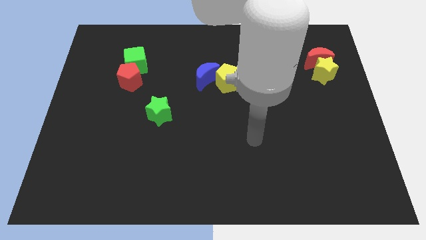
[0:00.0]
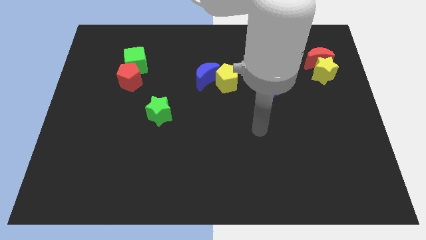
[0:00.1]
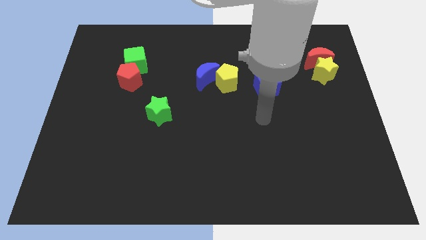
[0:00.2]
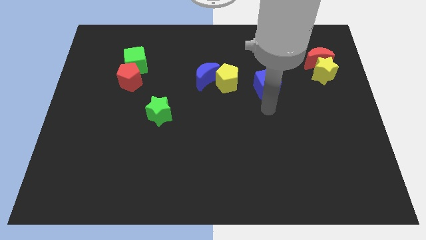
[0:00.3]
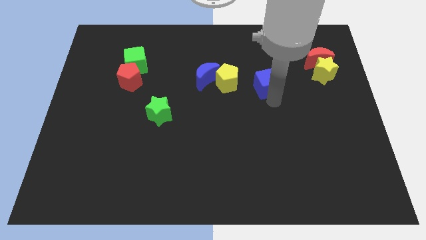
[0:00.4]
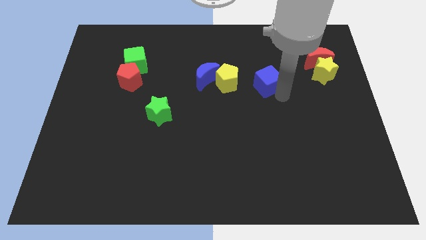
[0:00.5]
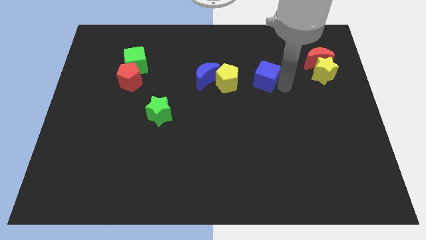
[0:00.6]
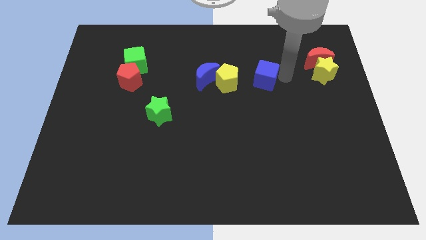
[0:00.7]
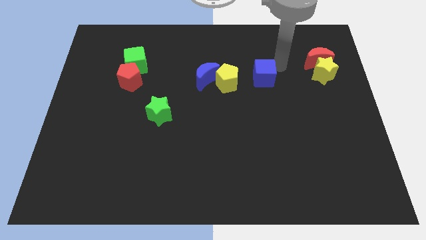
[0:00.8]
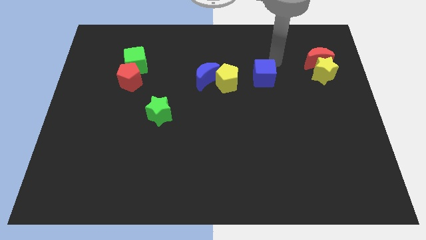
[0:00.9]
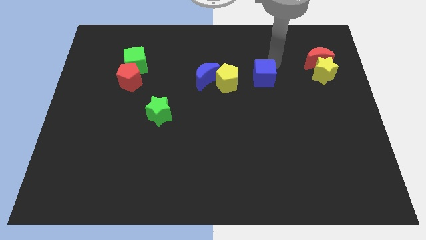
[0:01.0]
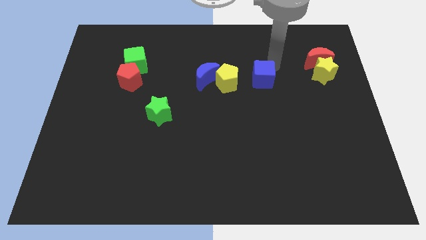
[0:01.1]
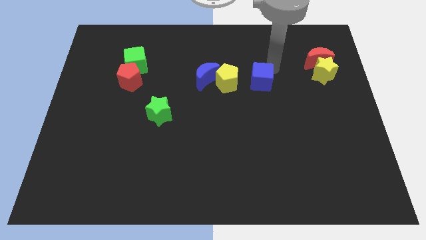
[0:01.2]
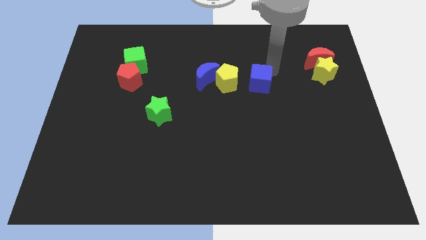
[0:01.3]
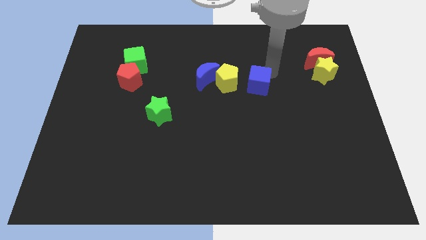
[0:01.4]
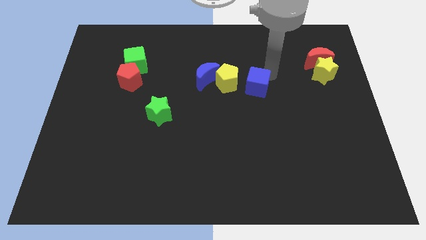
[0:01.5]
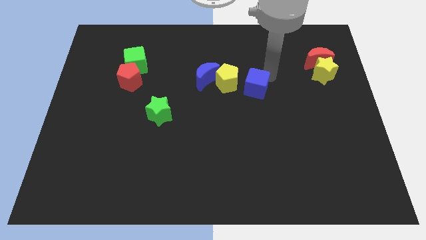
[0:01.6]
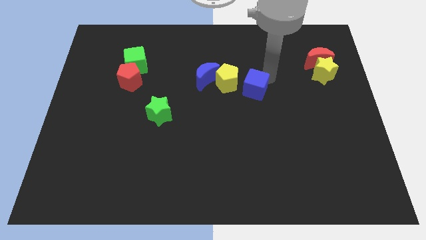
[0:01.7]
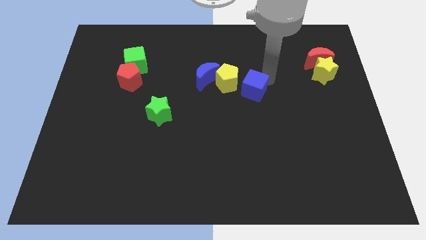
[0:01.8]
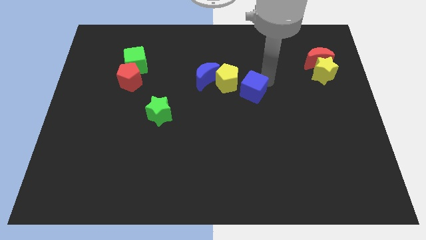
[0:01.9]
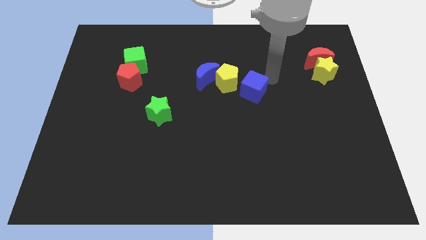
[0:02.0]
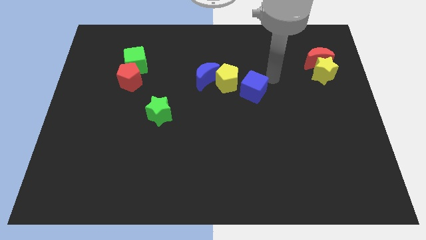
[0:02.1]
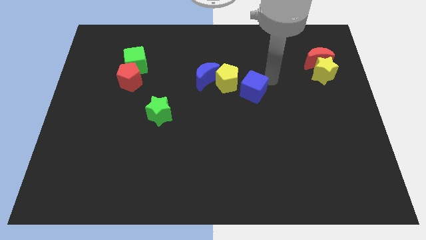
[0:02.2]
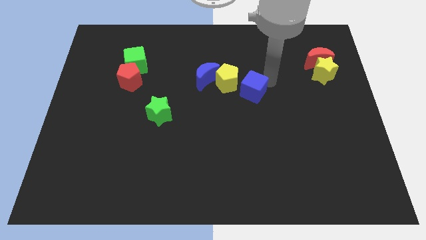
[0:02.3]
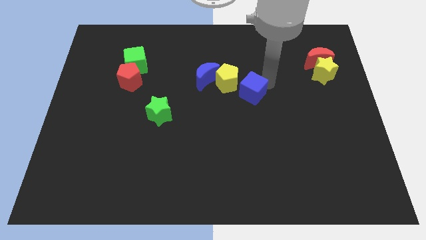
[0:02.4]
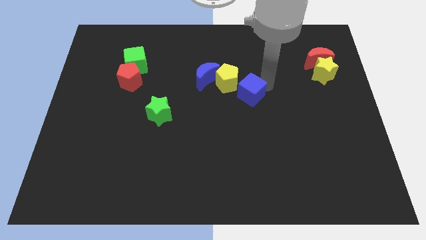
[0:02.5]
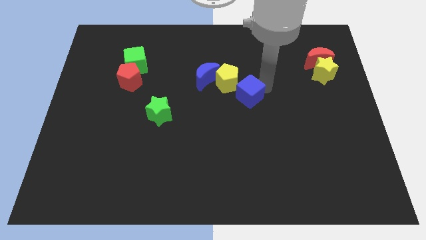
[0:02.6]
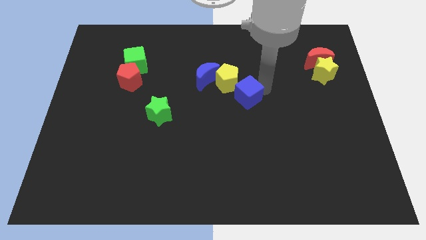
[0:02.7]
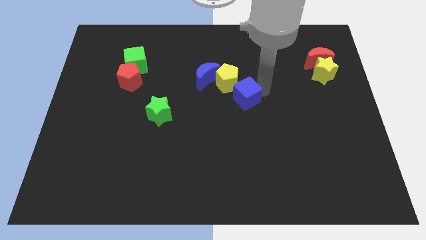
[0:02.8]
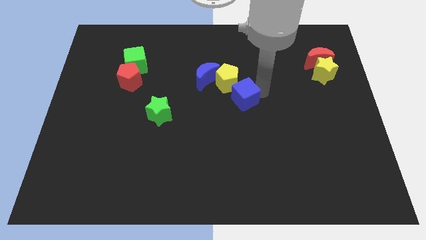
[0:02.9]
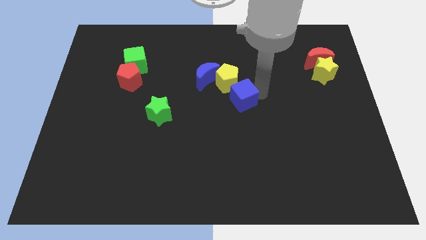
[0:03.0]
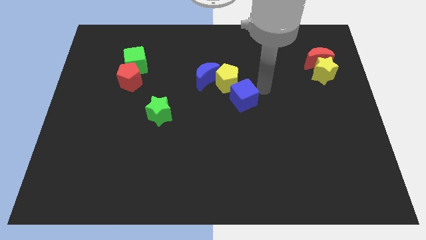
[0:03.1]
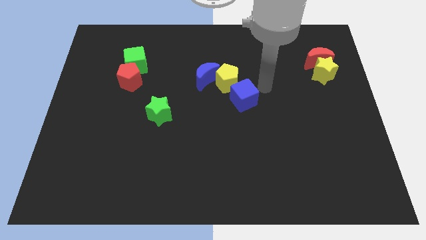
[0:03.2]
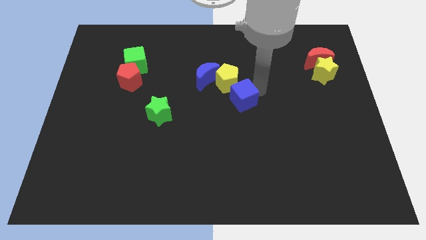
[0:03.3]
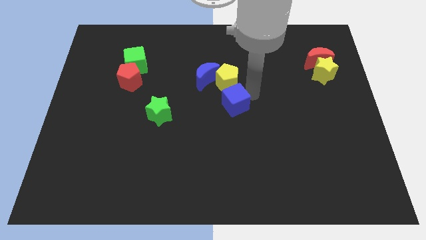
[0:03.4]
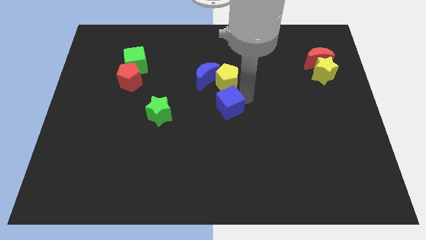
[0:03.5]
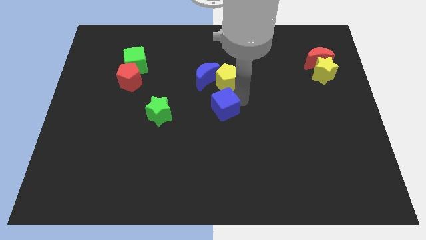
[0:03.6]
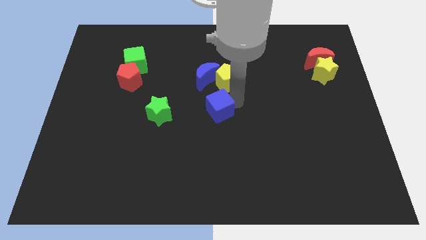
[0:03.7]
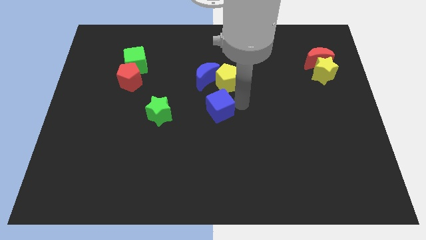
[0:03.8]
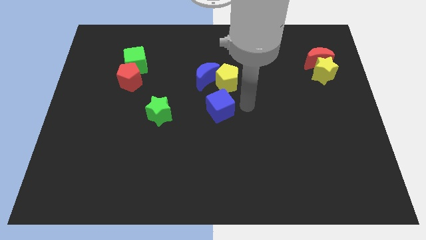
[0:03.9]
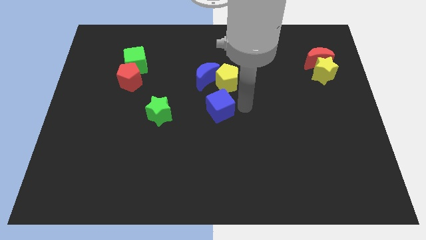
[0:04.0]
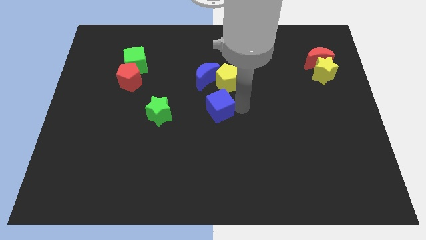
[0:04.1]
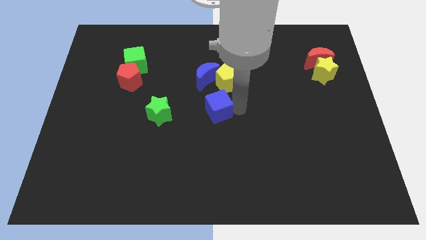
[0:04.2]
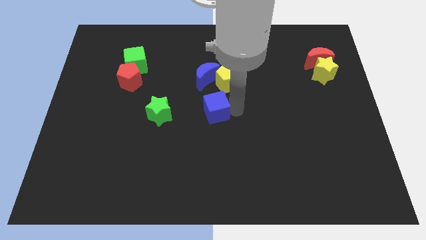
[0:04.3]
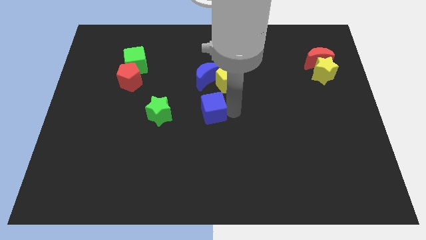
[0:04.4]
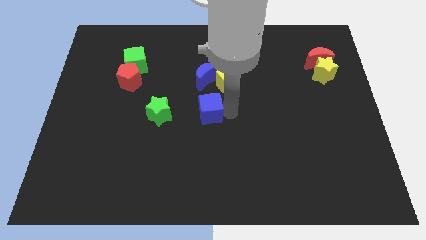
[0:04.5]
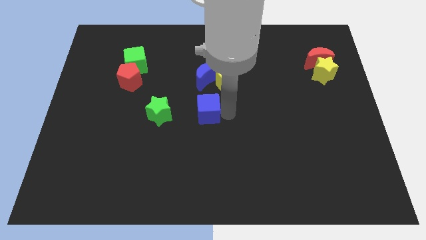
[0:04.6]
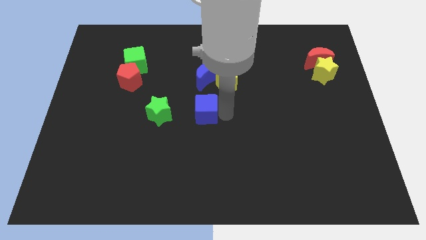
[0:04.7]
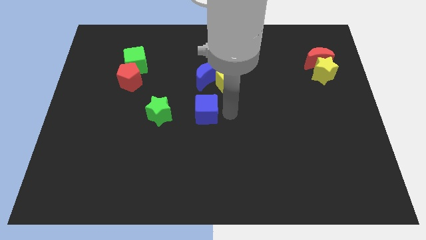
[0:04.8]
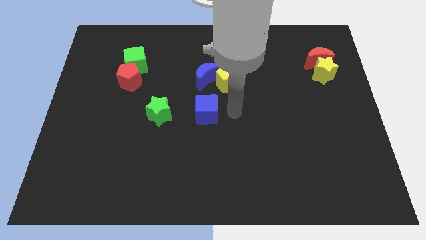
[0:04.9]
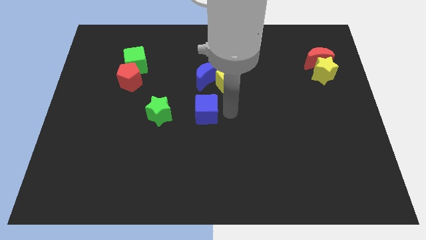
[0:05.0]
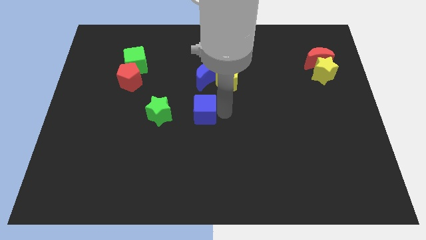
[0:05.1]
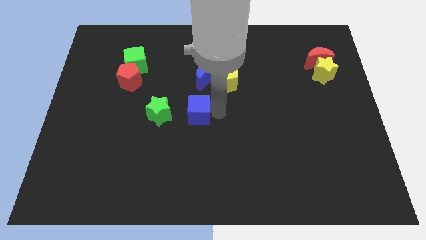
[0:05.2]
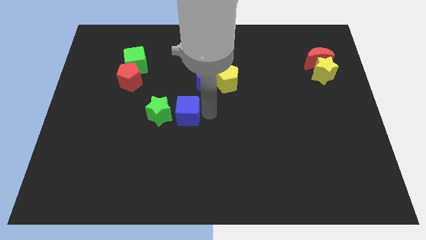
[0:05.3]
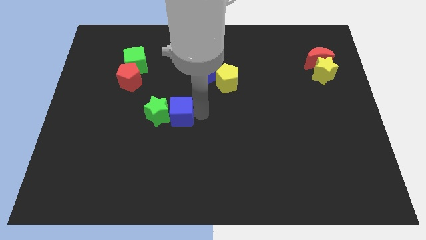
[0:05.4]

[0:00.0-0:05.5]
move the blue cube next to the green star

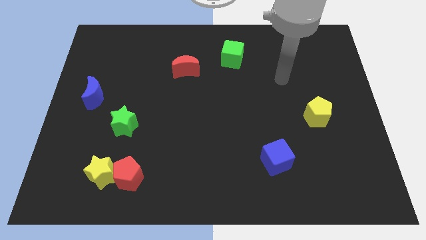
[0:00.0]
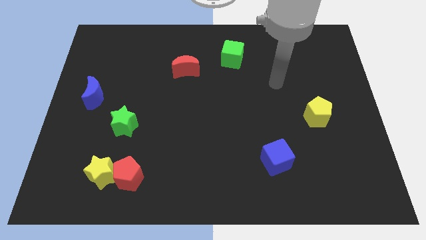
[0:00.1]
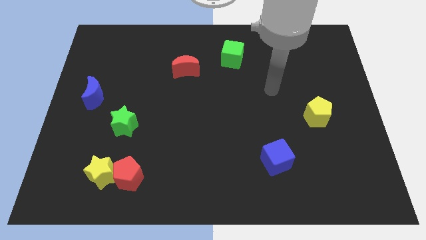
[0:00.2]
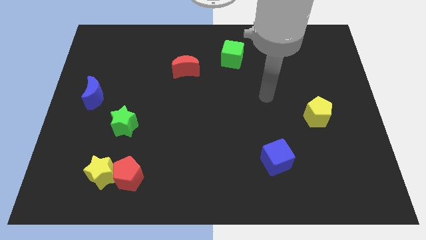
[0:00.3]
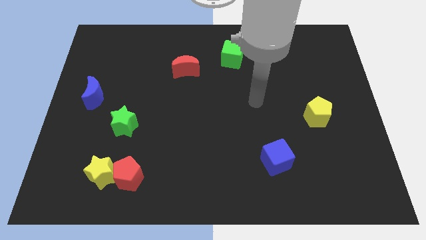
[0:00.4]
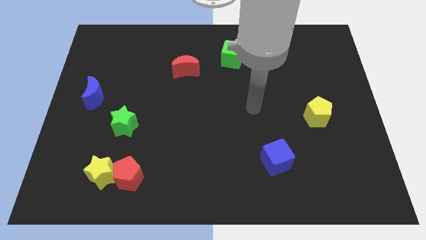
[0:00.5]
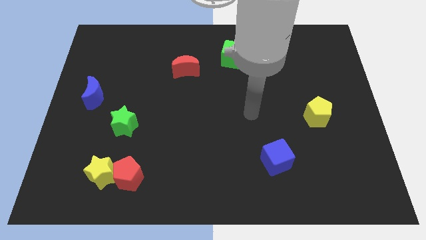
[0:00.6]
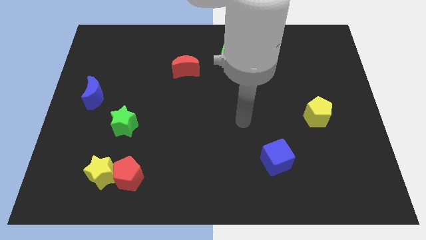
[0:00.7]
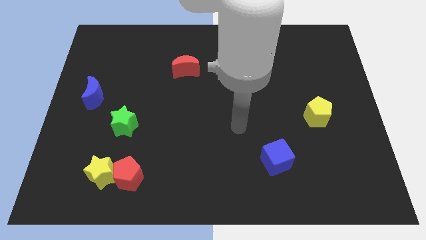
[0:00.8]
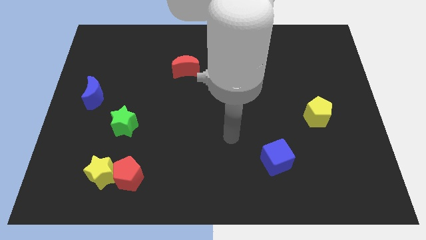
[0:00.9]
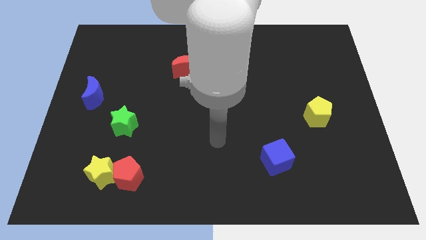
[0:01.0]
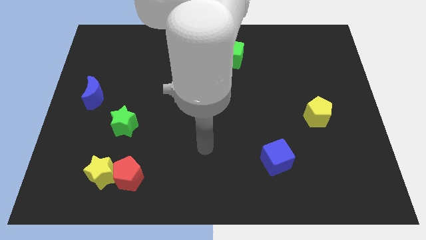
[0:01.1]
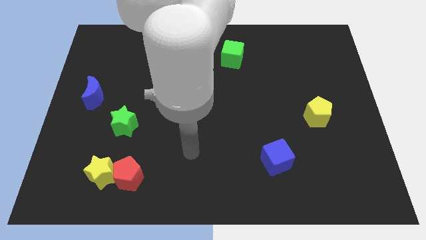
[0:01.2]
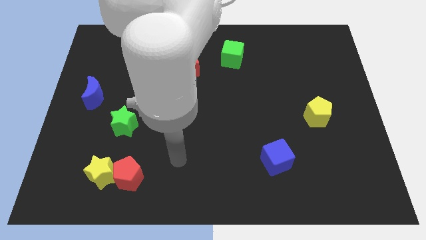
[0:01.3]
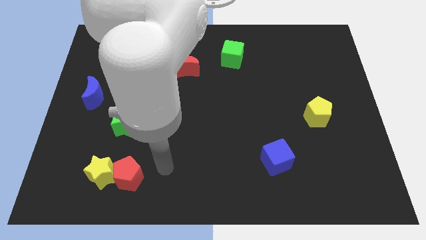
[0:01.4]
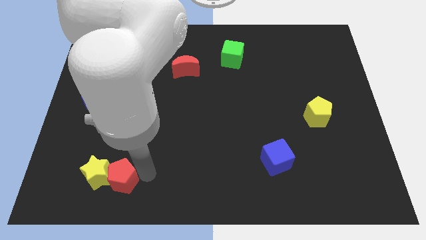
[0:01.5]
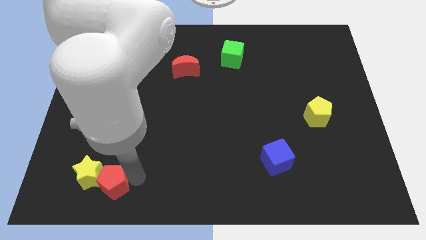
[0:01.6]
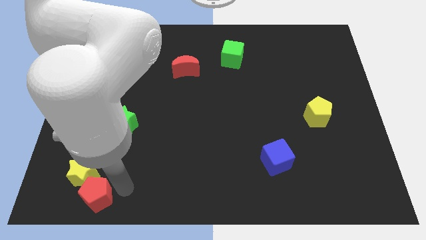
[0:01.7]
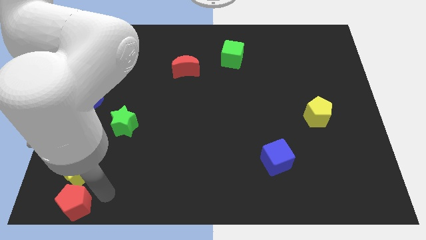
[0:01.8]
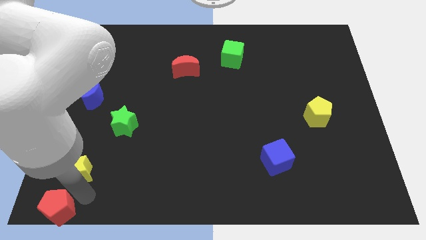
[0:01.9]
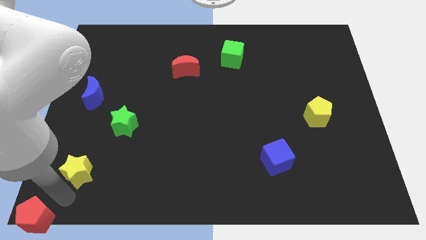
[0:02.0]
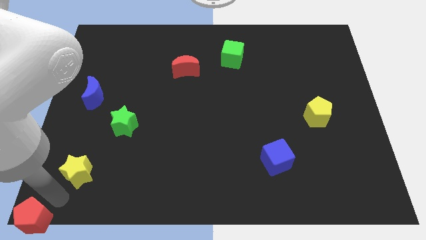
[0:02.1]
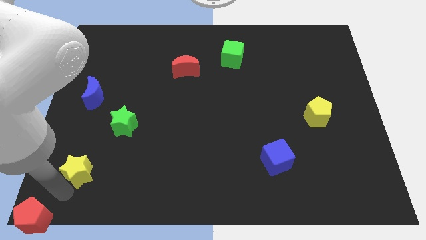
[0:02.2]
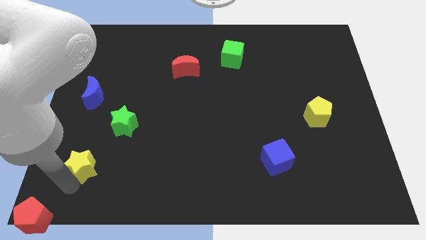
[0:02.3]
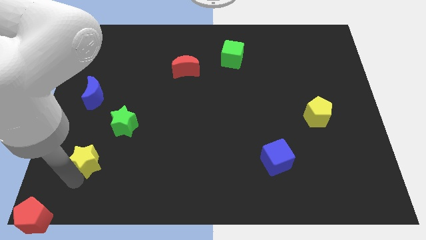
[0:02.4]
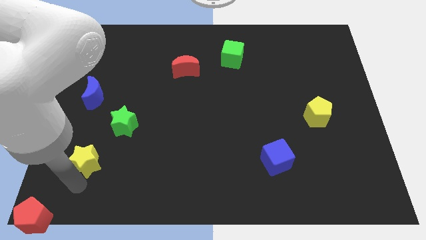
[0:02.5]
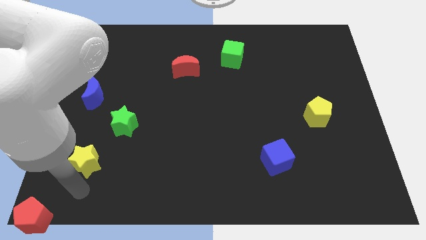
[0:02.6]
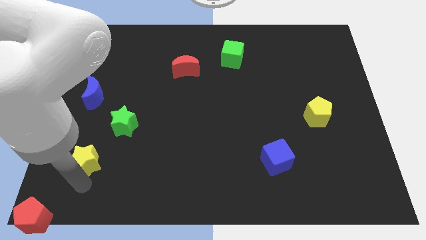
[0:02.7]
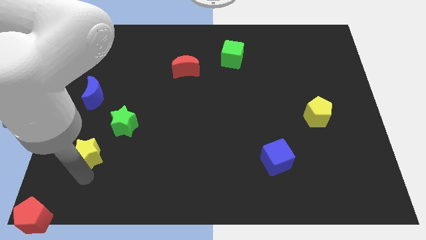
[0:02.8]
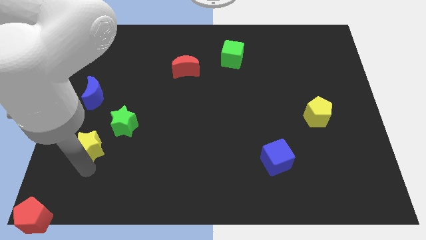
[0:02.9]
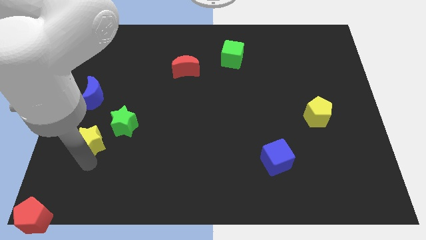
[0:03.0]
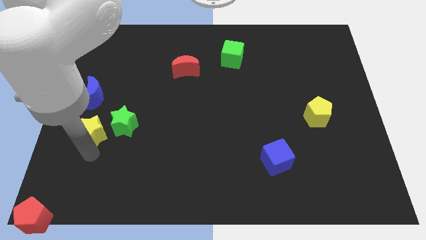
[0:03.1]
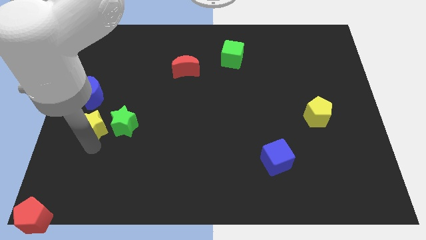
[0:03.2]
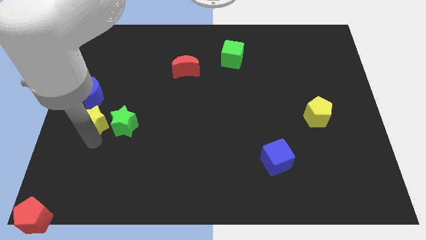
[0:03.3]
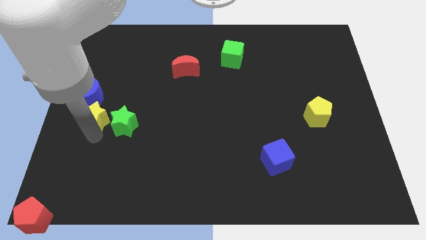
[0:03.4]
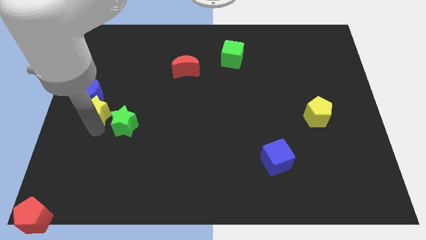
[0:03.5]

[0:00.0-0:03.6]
put the yellow star to the blue moon
